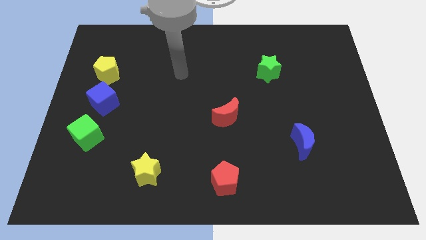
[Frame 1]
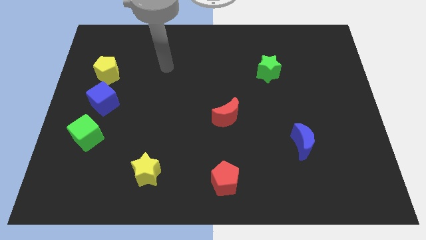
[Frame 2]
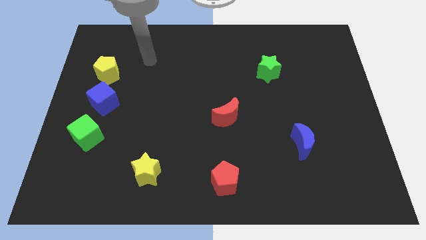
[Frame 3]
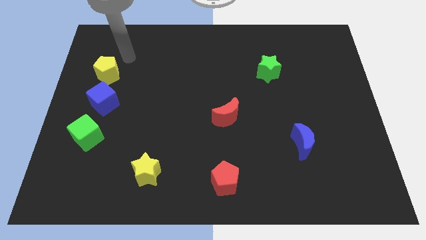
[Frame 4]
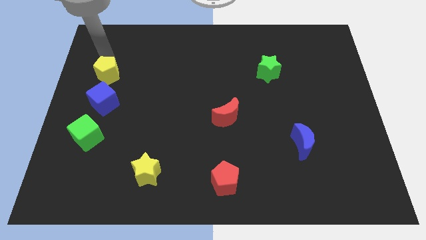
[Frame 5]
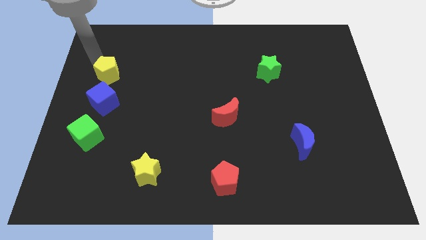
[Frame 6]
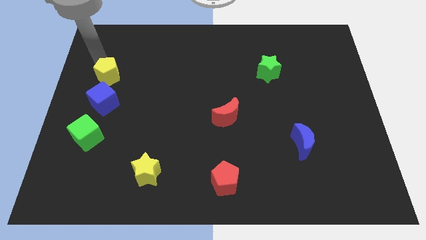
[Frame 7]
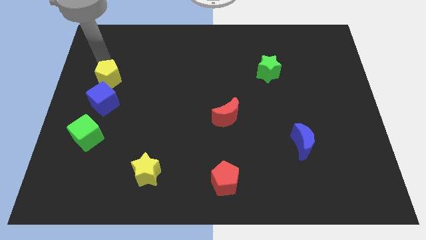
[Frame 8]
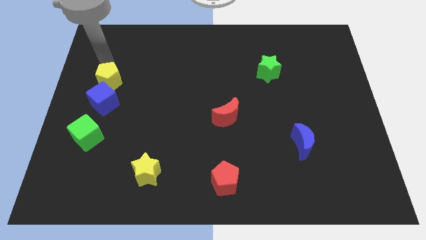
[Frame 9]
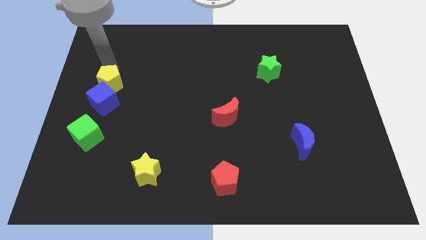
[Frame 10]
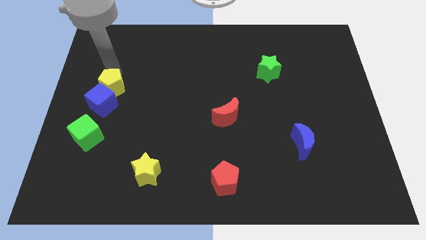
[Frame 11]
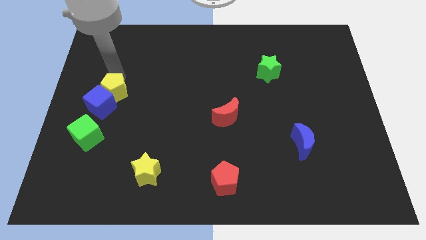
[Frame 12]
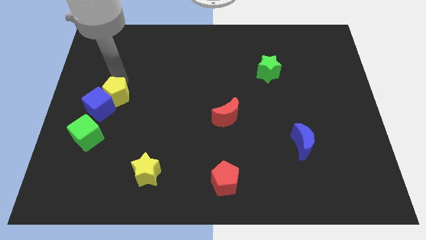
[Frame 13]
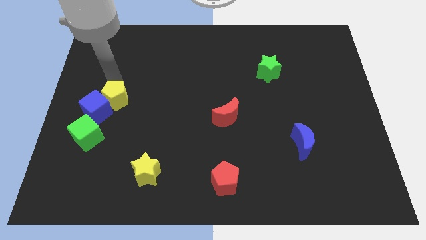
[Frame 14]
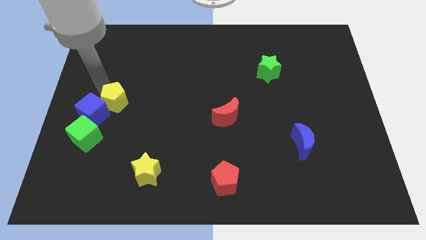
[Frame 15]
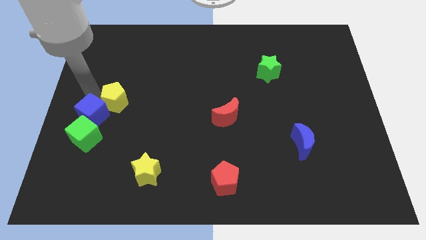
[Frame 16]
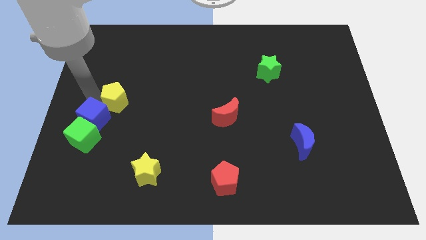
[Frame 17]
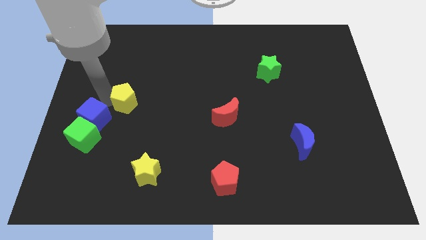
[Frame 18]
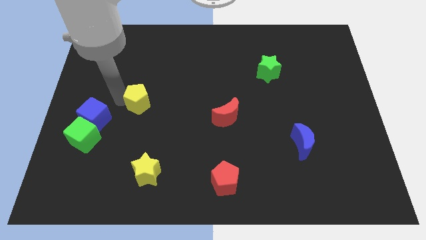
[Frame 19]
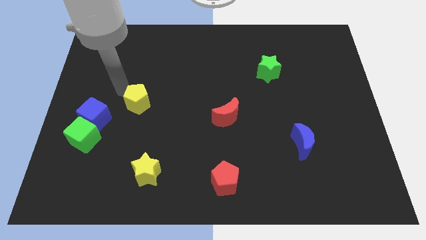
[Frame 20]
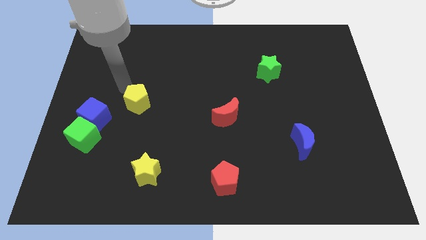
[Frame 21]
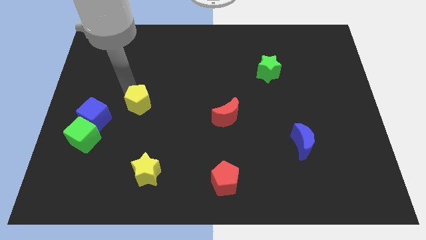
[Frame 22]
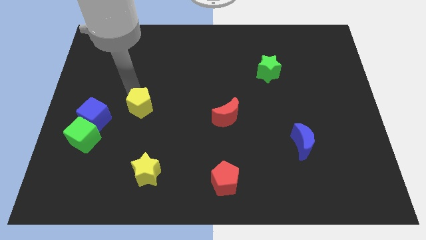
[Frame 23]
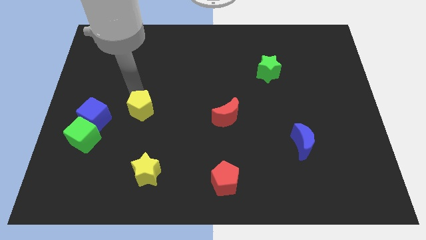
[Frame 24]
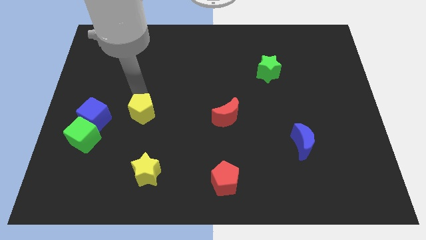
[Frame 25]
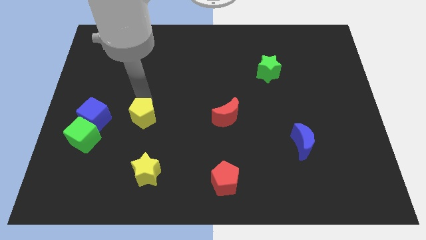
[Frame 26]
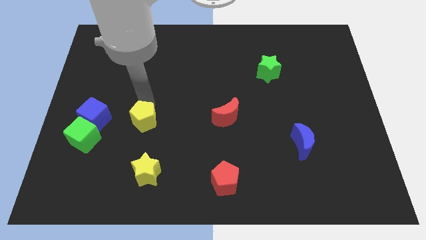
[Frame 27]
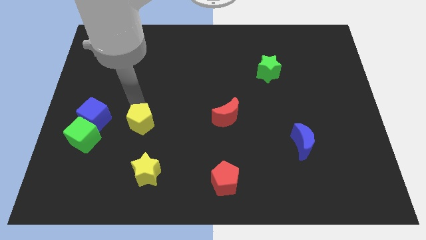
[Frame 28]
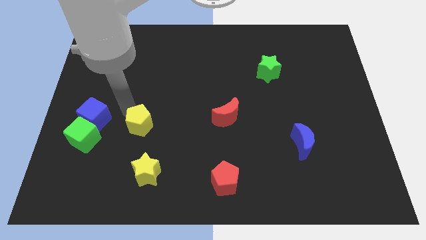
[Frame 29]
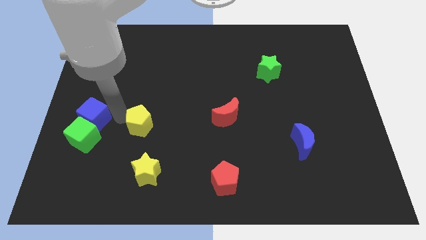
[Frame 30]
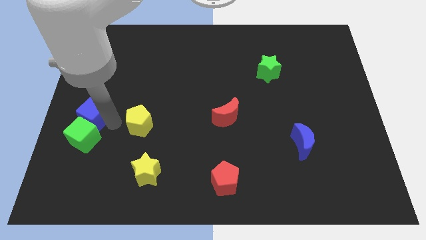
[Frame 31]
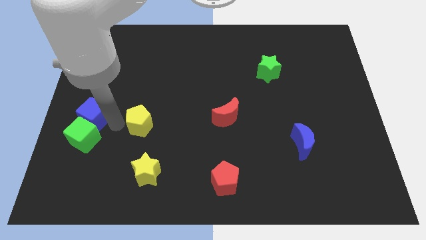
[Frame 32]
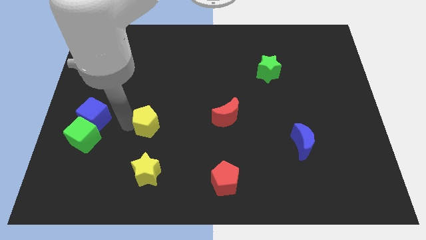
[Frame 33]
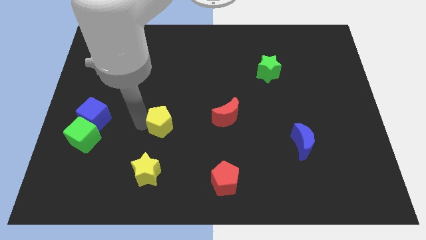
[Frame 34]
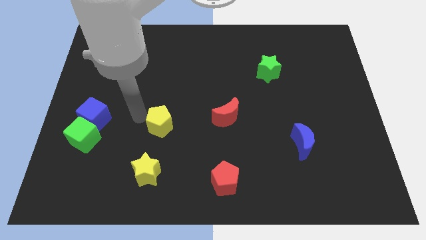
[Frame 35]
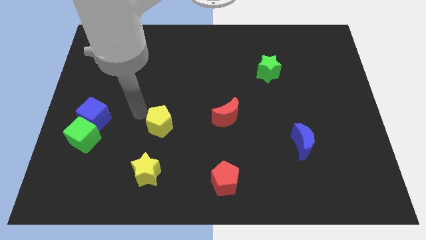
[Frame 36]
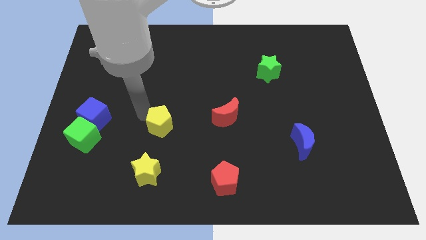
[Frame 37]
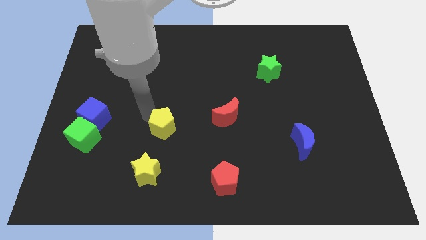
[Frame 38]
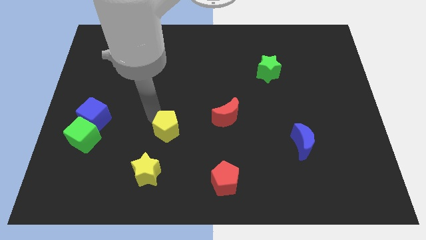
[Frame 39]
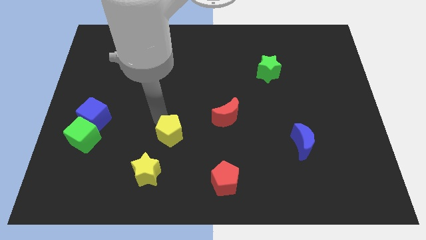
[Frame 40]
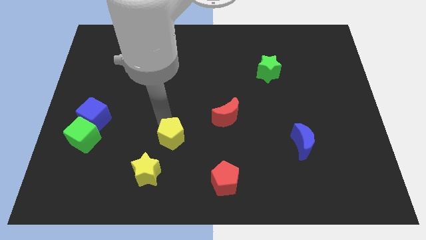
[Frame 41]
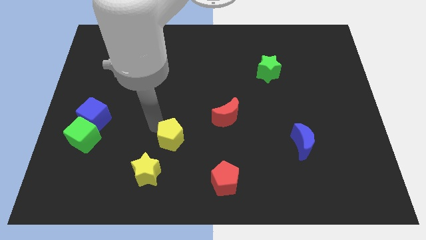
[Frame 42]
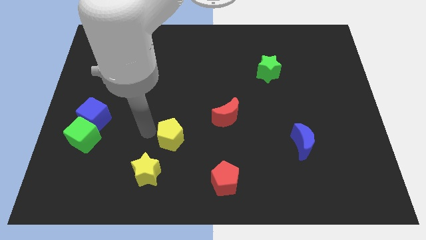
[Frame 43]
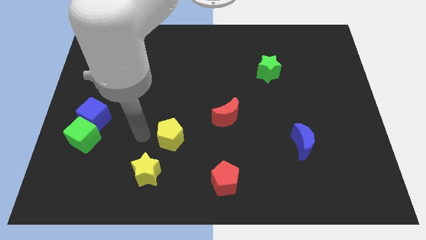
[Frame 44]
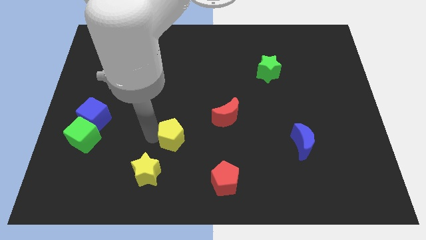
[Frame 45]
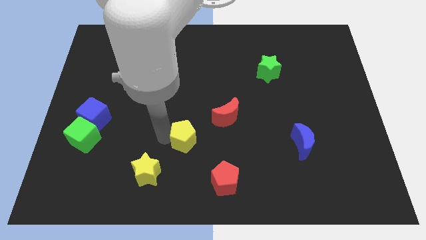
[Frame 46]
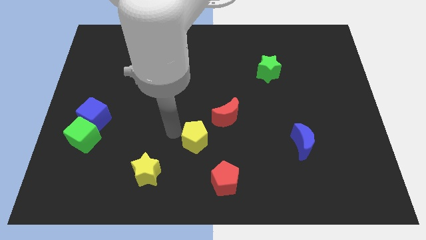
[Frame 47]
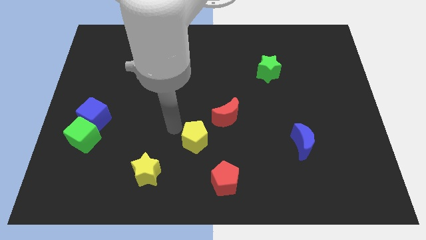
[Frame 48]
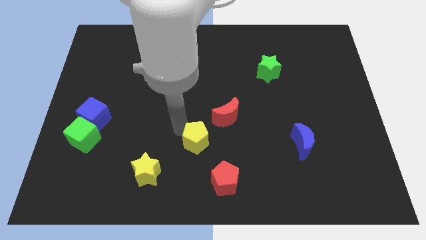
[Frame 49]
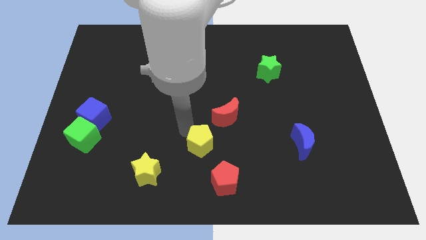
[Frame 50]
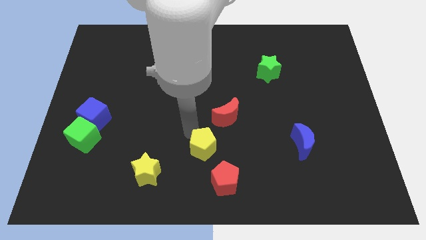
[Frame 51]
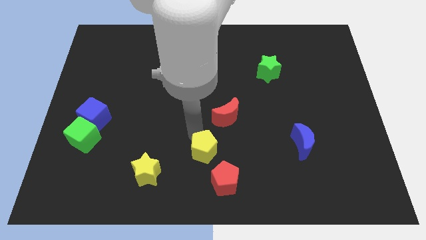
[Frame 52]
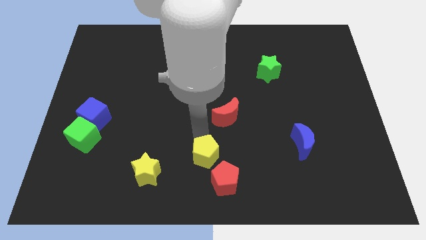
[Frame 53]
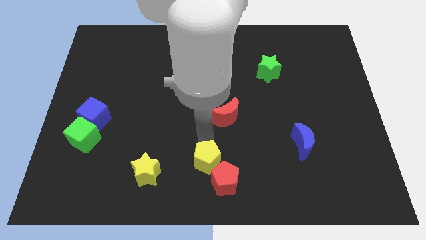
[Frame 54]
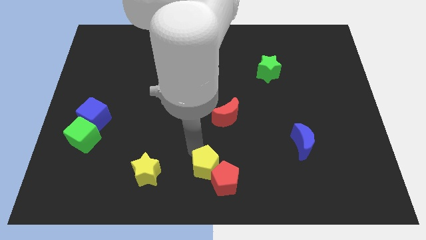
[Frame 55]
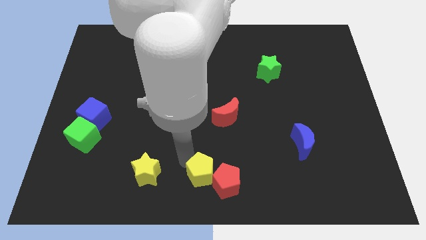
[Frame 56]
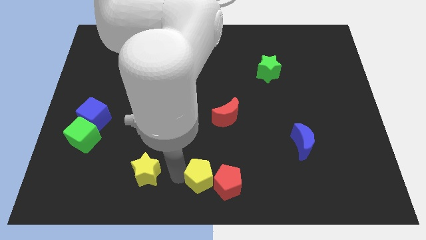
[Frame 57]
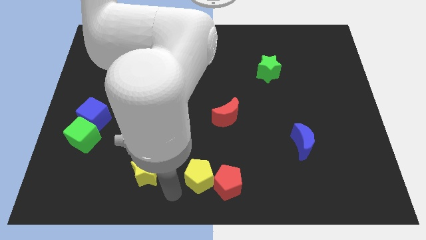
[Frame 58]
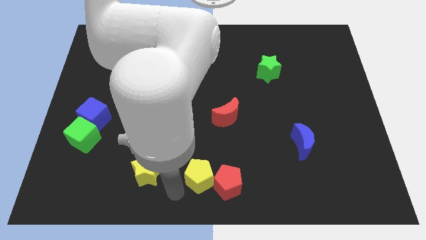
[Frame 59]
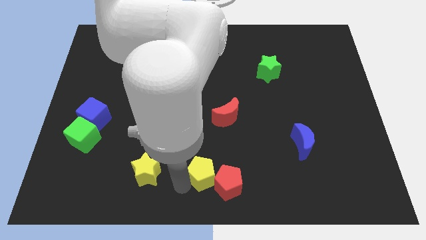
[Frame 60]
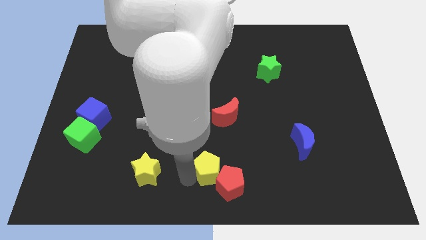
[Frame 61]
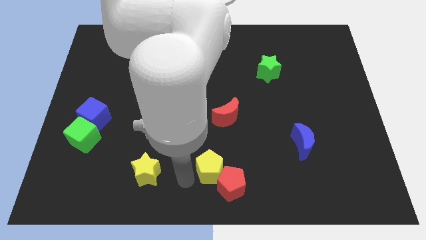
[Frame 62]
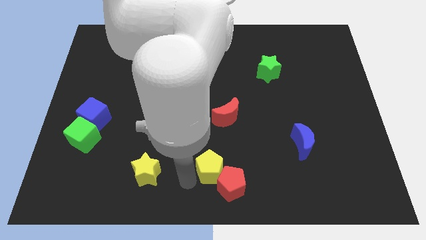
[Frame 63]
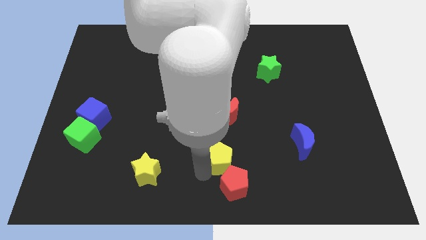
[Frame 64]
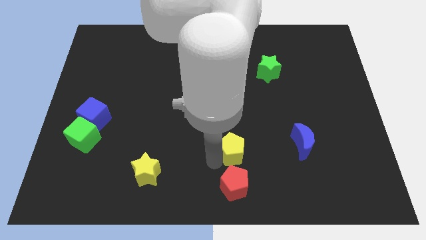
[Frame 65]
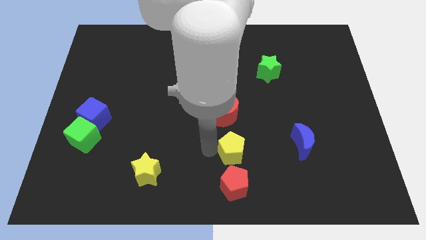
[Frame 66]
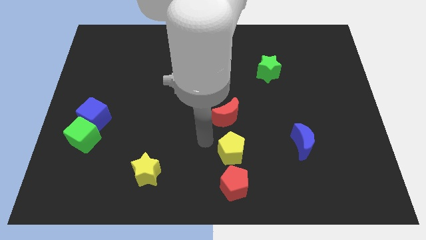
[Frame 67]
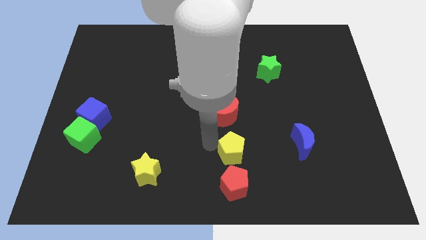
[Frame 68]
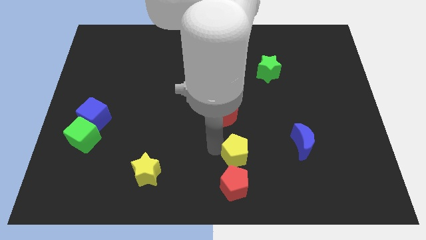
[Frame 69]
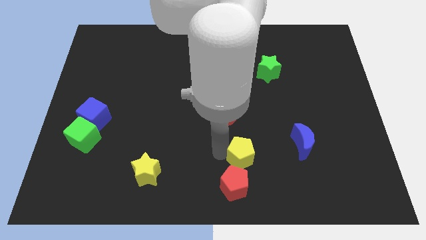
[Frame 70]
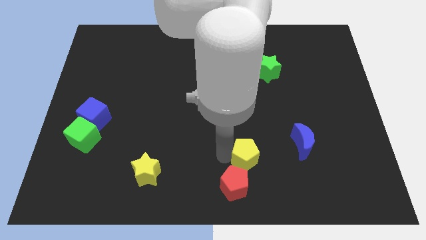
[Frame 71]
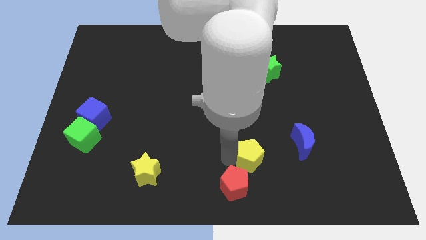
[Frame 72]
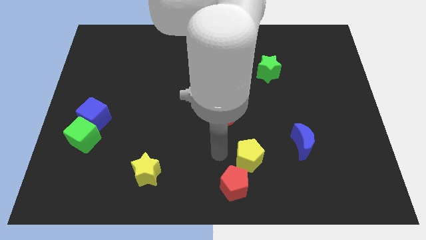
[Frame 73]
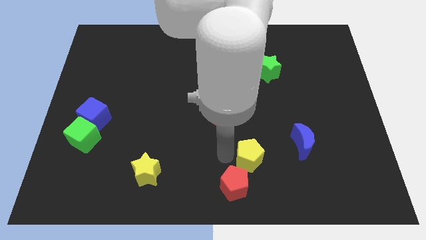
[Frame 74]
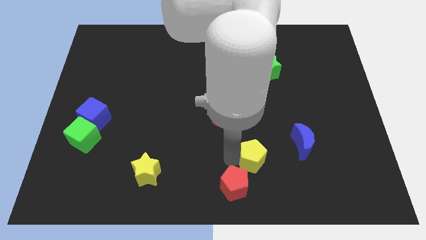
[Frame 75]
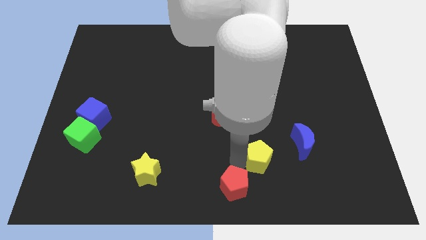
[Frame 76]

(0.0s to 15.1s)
slide the yellow pentagon to the bottom left side of the blue moon
